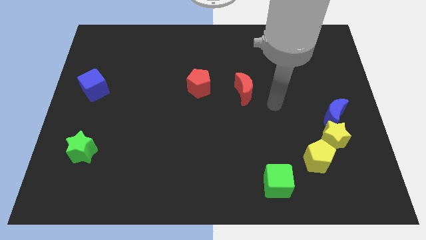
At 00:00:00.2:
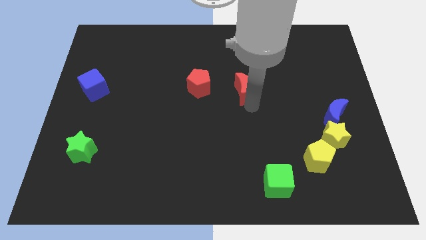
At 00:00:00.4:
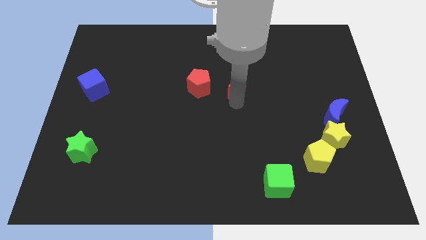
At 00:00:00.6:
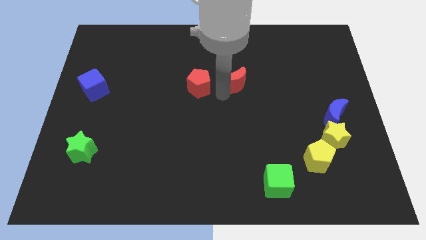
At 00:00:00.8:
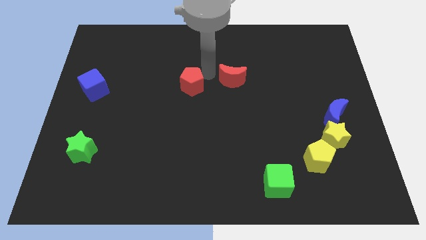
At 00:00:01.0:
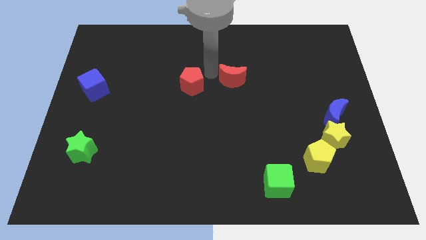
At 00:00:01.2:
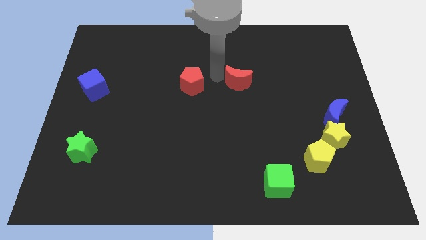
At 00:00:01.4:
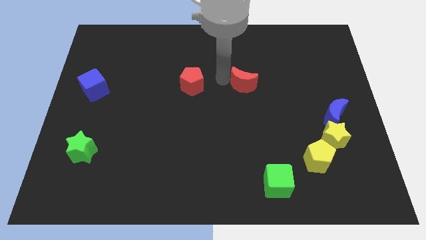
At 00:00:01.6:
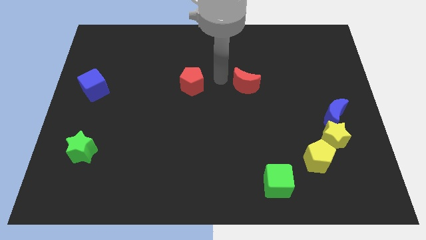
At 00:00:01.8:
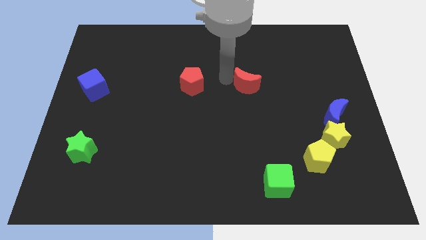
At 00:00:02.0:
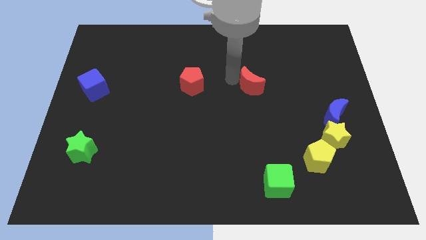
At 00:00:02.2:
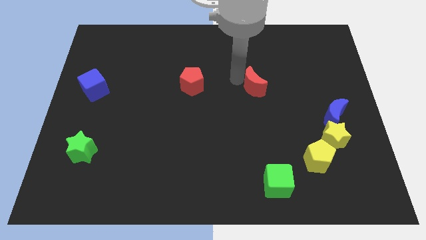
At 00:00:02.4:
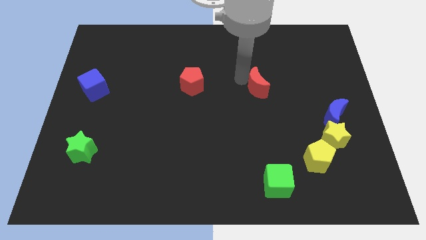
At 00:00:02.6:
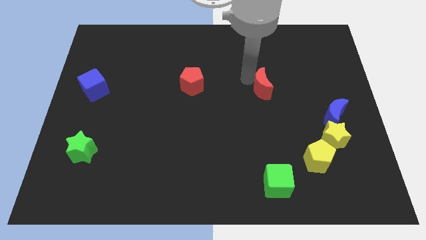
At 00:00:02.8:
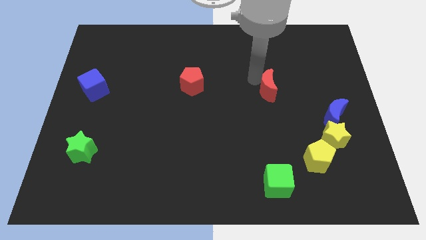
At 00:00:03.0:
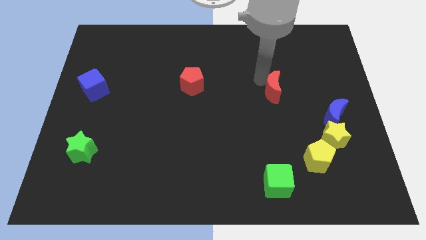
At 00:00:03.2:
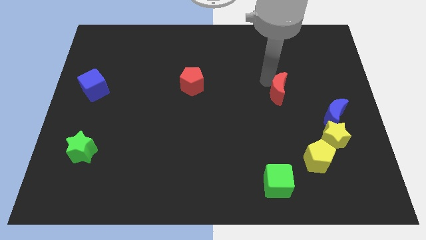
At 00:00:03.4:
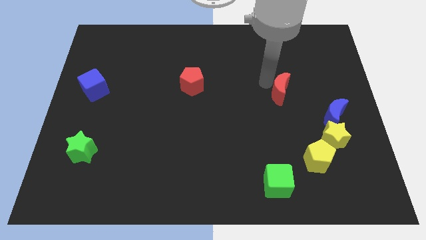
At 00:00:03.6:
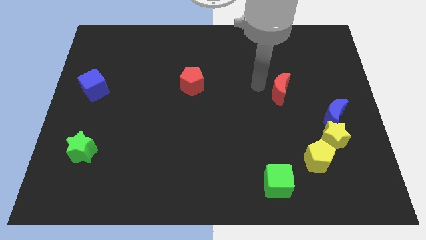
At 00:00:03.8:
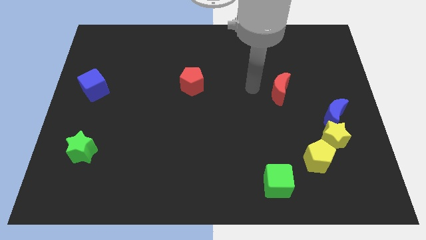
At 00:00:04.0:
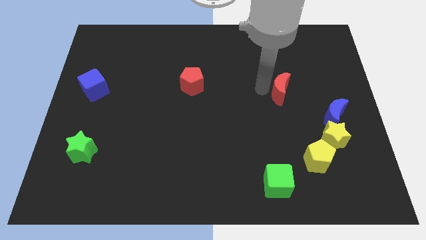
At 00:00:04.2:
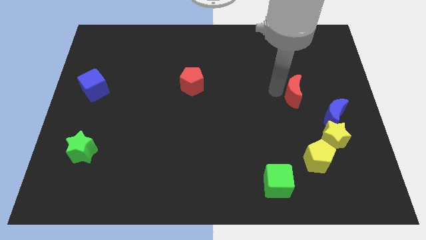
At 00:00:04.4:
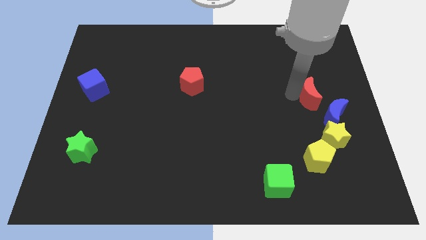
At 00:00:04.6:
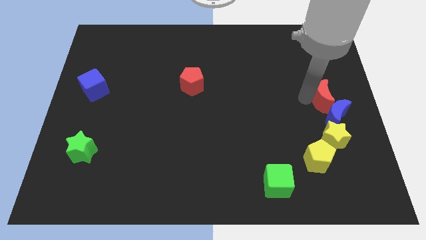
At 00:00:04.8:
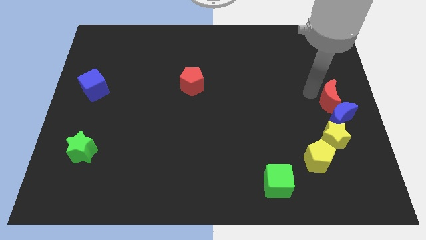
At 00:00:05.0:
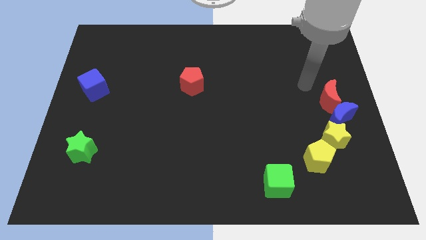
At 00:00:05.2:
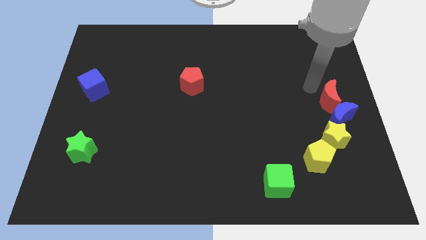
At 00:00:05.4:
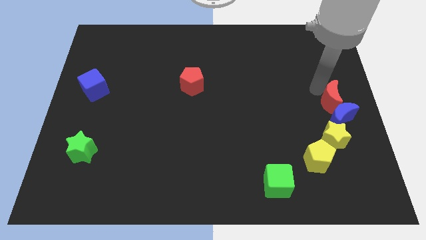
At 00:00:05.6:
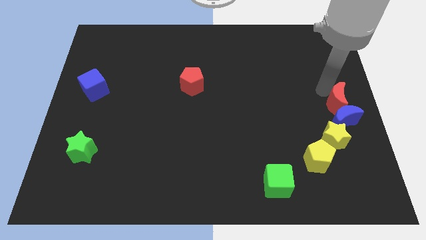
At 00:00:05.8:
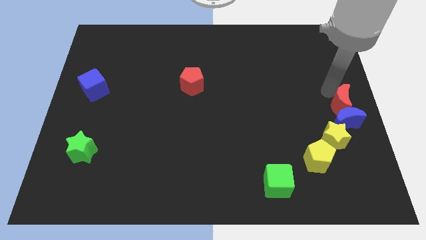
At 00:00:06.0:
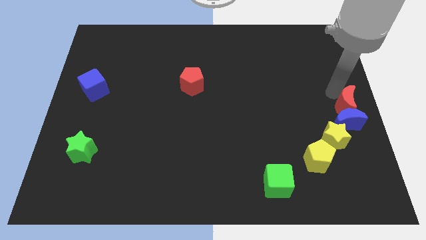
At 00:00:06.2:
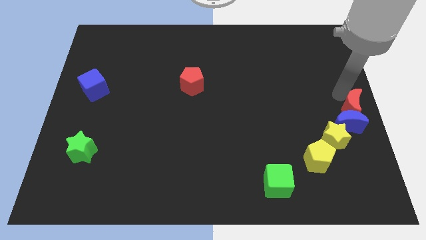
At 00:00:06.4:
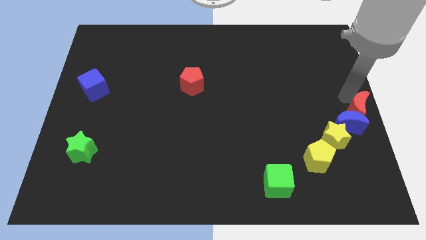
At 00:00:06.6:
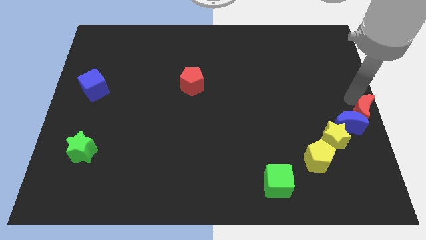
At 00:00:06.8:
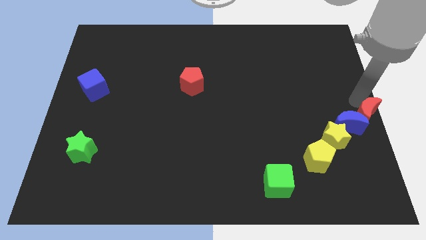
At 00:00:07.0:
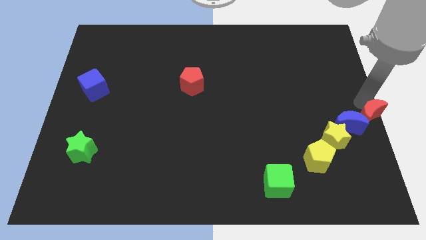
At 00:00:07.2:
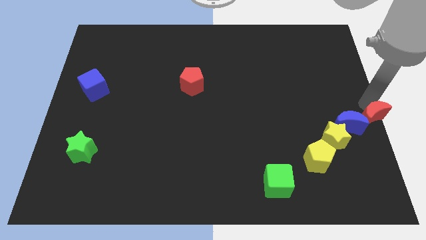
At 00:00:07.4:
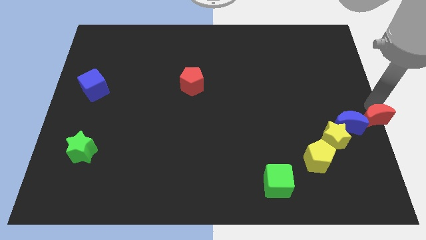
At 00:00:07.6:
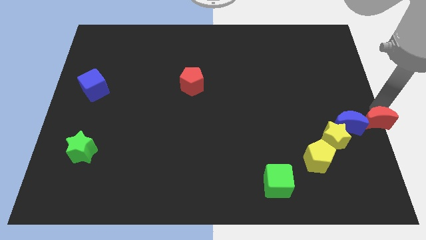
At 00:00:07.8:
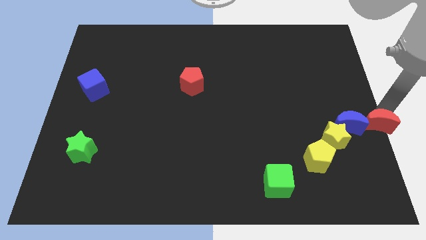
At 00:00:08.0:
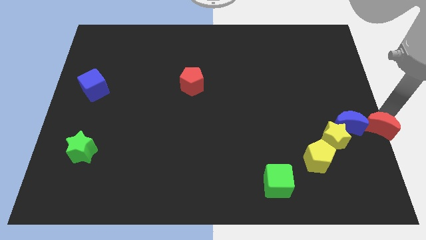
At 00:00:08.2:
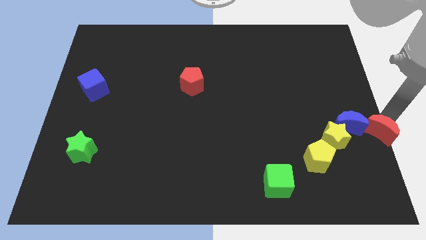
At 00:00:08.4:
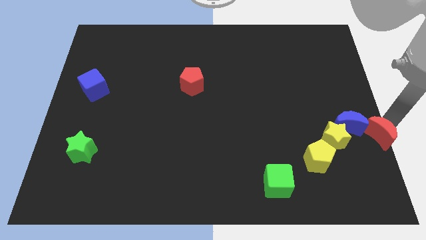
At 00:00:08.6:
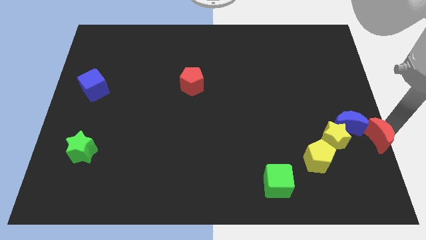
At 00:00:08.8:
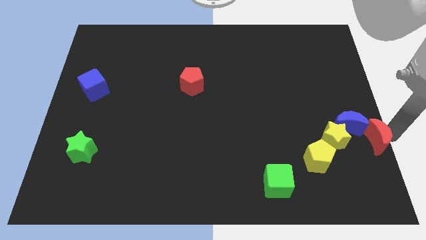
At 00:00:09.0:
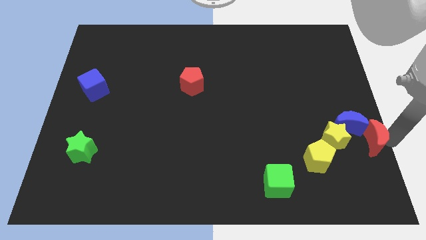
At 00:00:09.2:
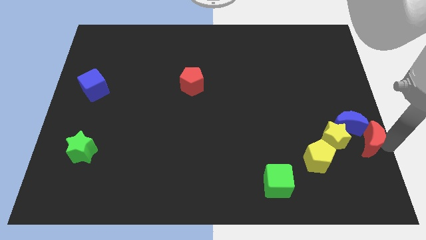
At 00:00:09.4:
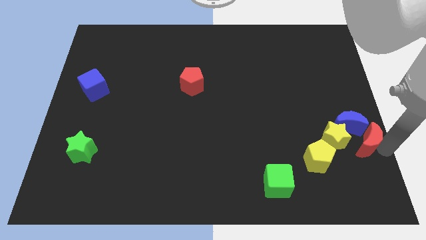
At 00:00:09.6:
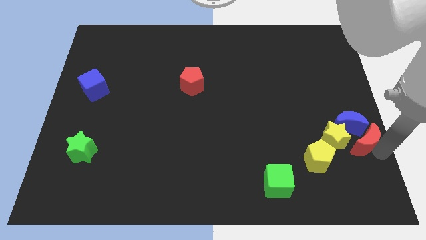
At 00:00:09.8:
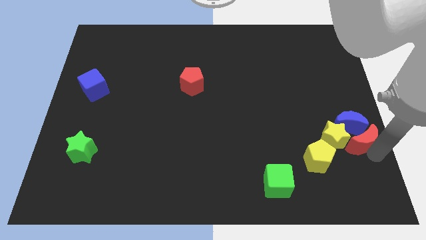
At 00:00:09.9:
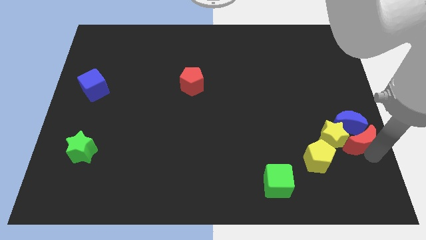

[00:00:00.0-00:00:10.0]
push the red moon to the top right side of the yellow pentagon

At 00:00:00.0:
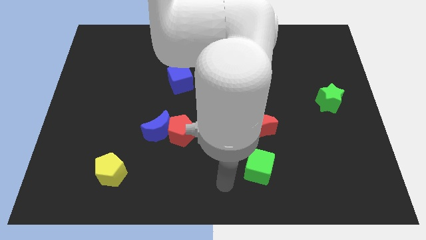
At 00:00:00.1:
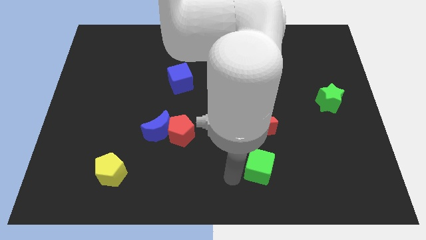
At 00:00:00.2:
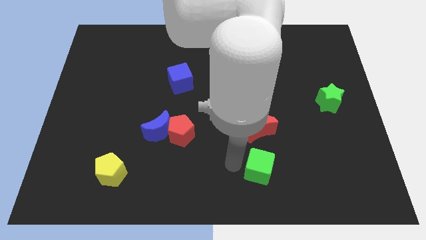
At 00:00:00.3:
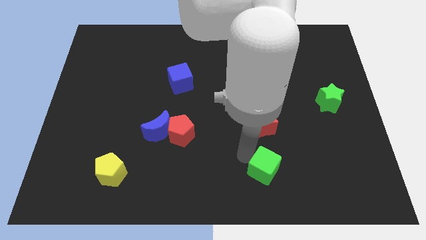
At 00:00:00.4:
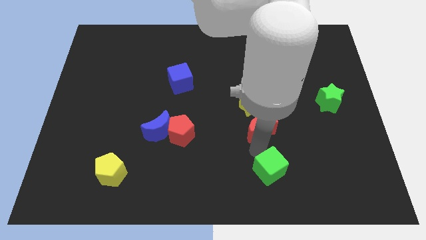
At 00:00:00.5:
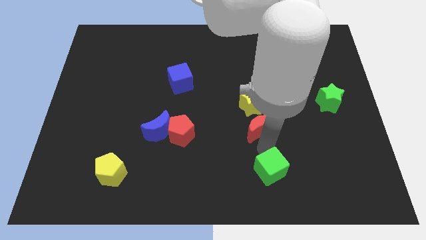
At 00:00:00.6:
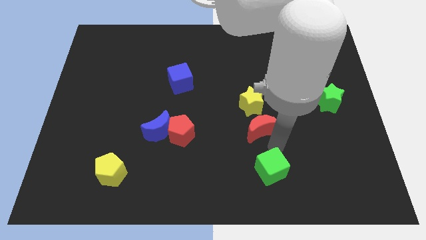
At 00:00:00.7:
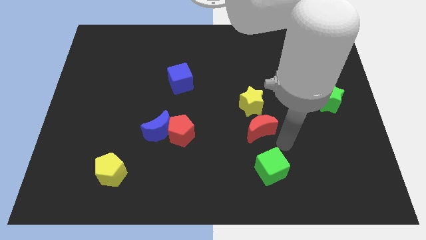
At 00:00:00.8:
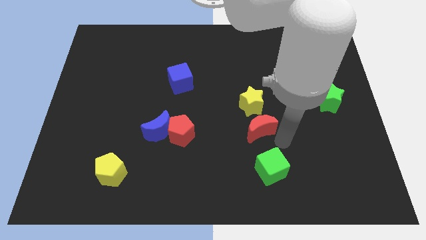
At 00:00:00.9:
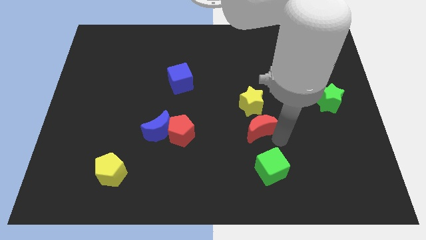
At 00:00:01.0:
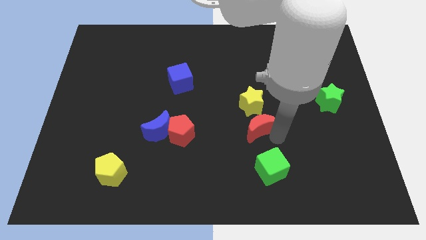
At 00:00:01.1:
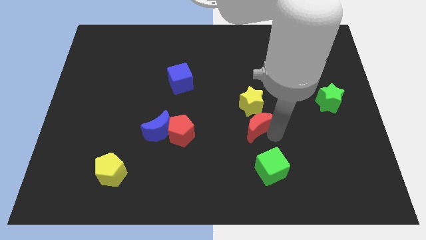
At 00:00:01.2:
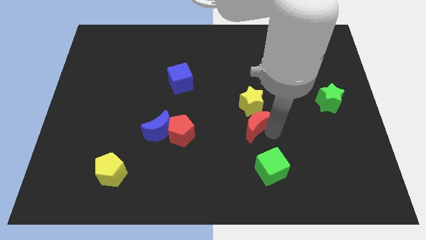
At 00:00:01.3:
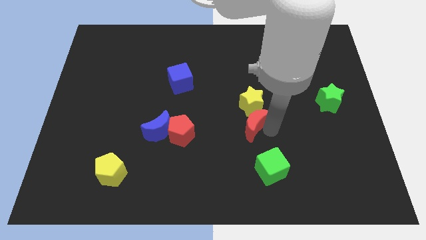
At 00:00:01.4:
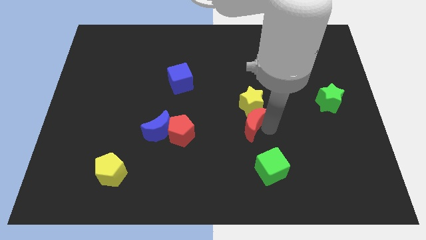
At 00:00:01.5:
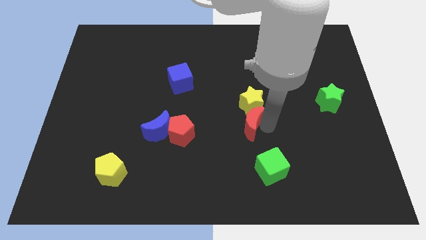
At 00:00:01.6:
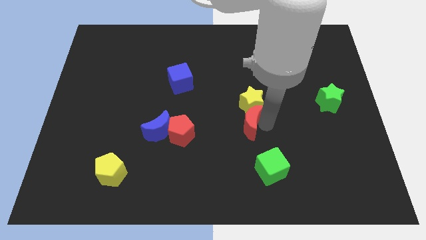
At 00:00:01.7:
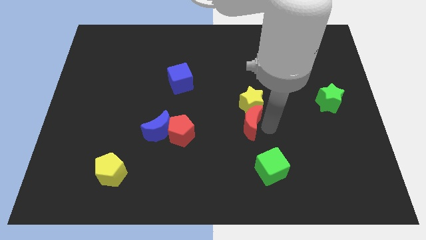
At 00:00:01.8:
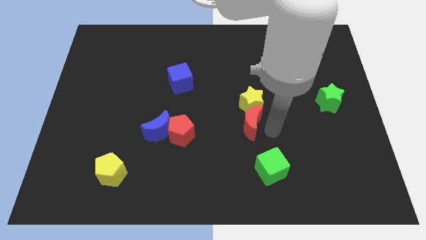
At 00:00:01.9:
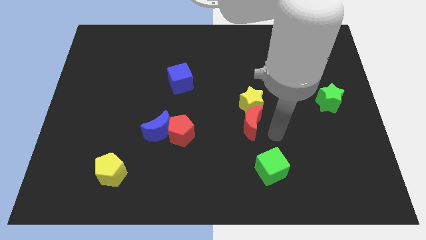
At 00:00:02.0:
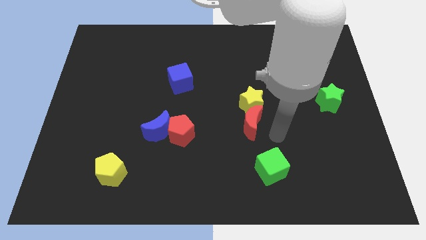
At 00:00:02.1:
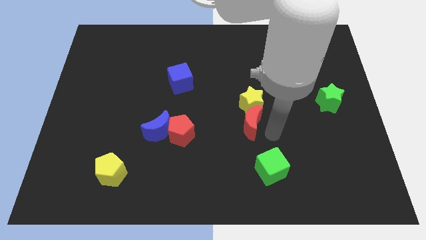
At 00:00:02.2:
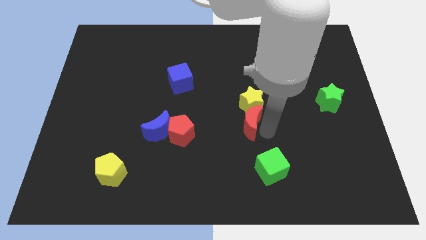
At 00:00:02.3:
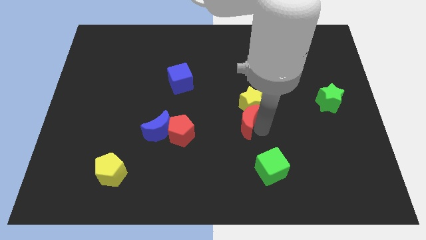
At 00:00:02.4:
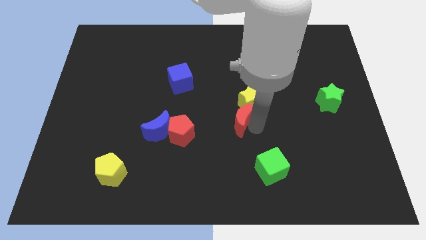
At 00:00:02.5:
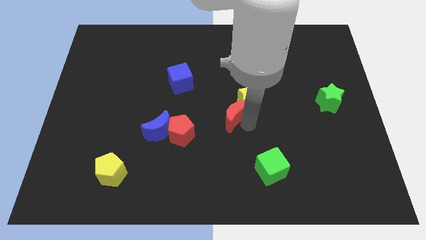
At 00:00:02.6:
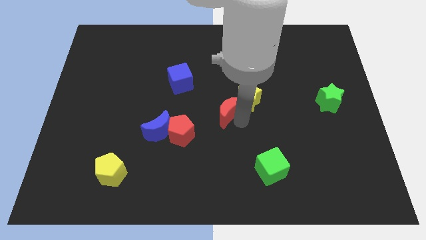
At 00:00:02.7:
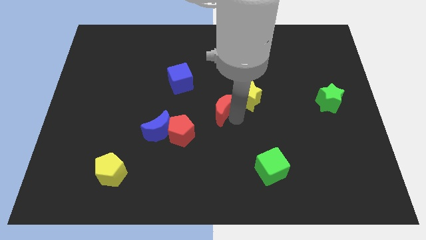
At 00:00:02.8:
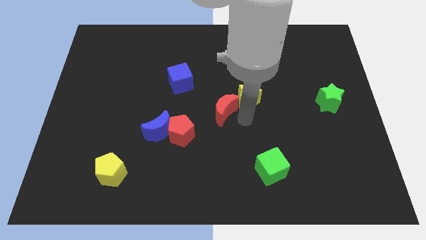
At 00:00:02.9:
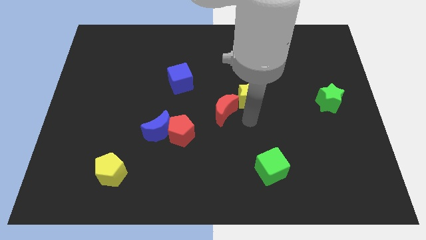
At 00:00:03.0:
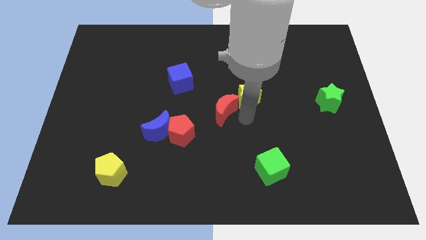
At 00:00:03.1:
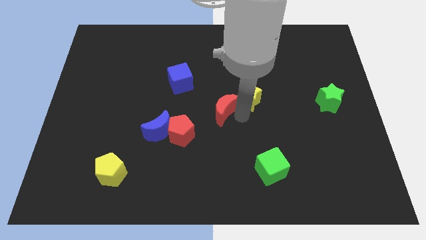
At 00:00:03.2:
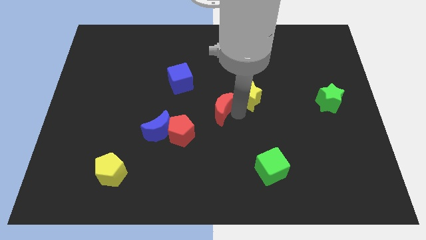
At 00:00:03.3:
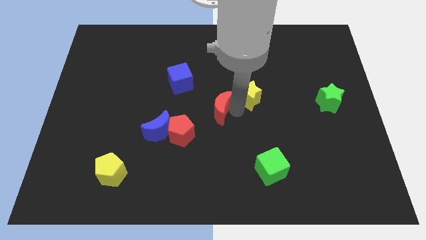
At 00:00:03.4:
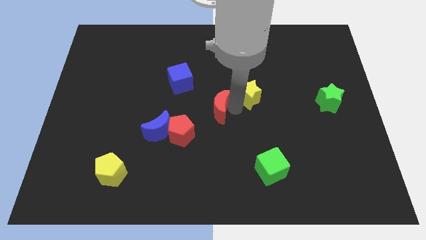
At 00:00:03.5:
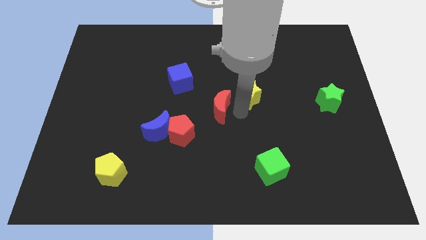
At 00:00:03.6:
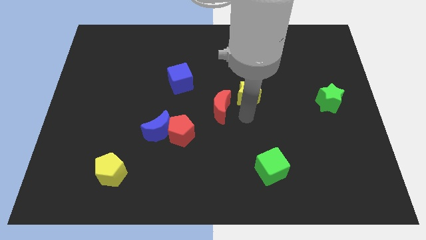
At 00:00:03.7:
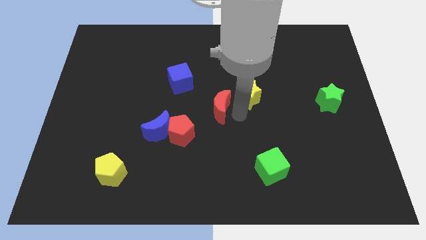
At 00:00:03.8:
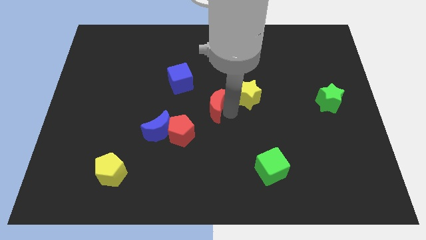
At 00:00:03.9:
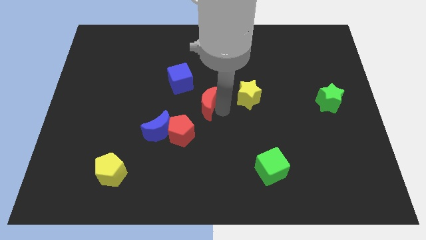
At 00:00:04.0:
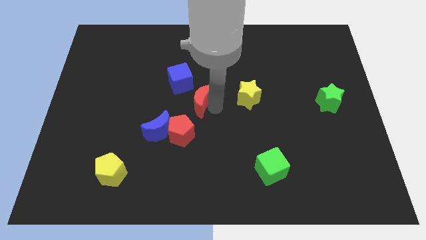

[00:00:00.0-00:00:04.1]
slide the red moon to the top side of the red pentagon
